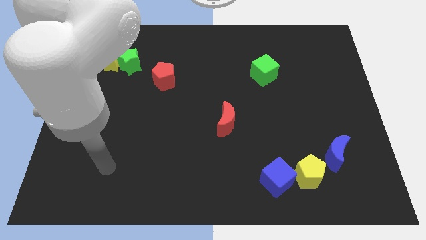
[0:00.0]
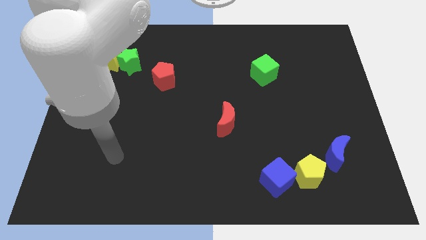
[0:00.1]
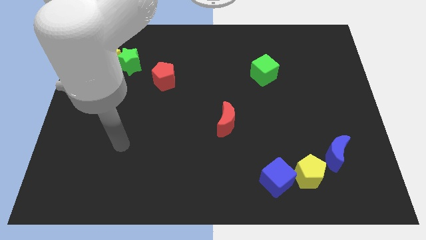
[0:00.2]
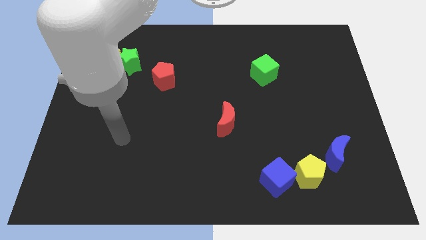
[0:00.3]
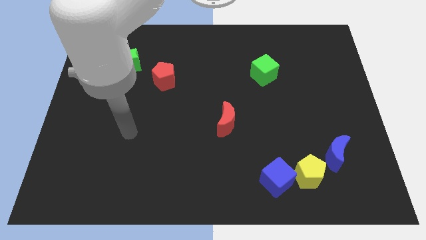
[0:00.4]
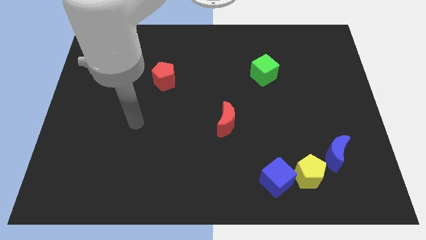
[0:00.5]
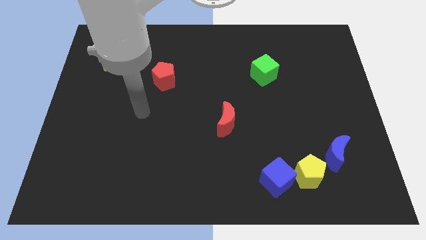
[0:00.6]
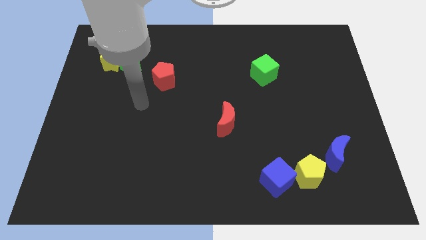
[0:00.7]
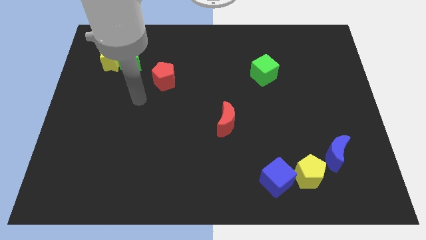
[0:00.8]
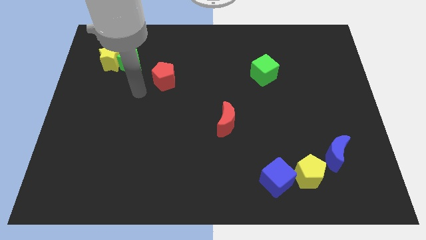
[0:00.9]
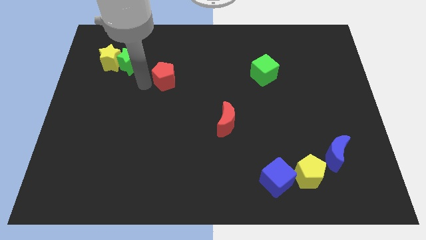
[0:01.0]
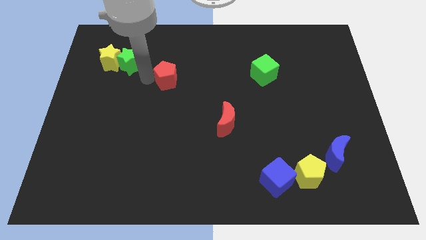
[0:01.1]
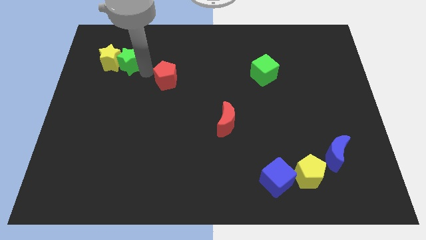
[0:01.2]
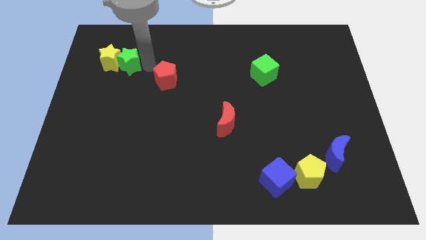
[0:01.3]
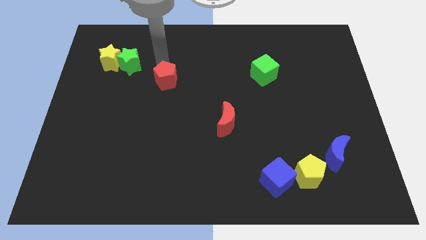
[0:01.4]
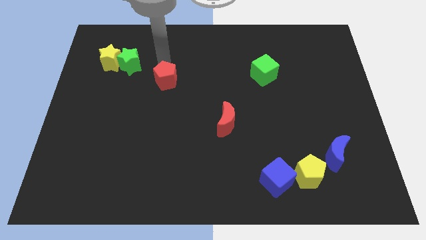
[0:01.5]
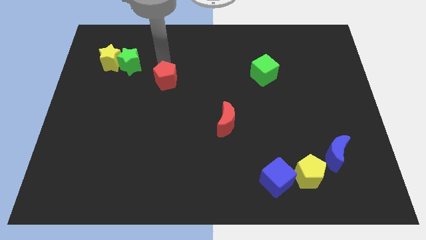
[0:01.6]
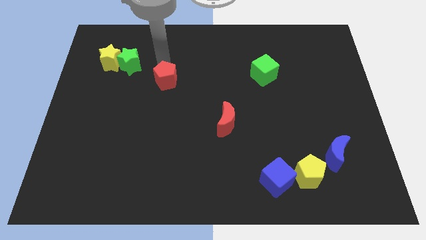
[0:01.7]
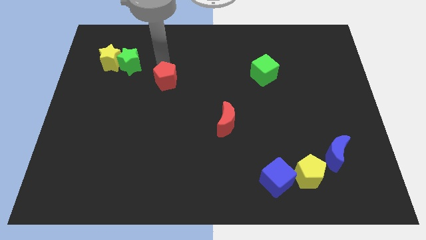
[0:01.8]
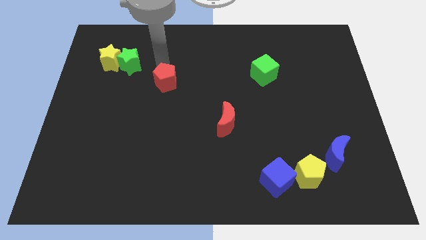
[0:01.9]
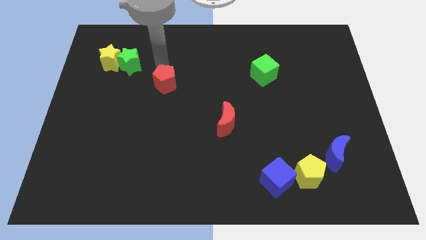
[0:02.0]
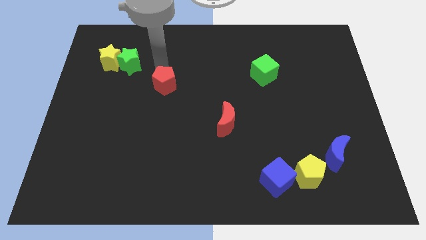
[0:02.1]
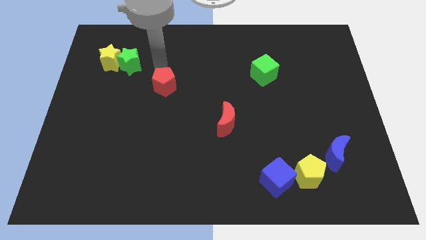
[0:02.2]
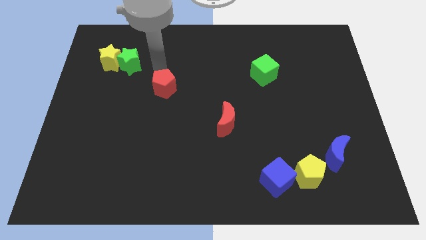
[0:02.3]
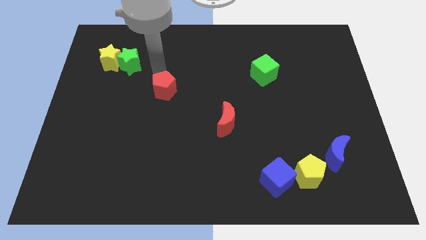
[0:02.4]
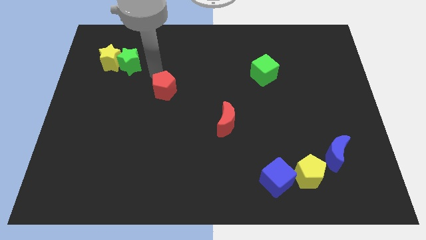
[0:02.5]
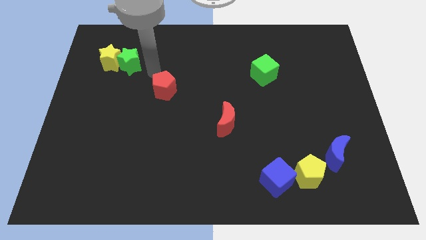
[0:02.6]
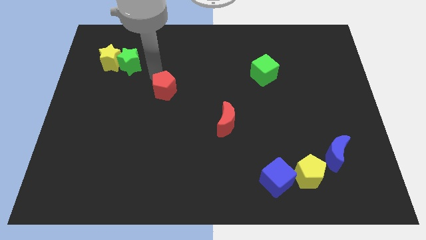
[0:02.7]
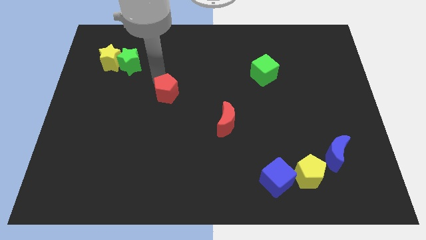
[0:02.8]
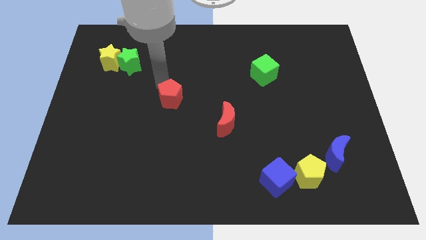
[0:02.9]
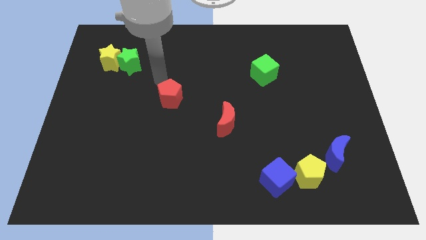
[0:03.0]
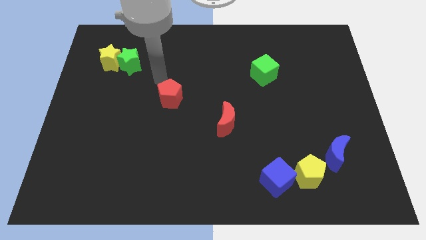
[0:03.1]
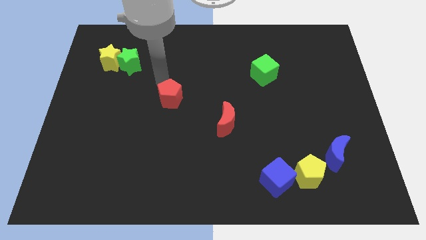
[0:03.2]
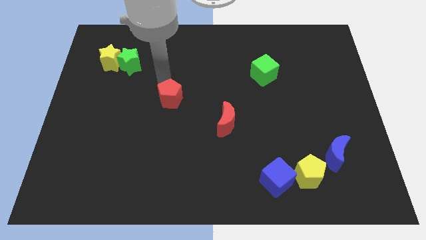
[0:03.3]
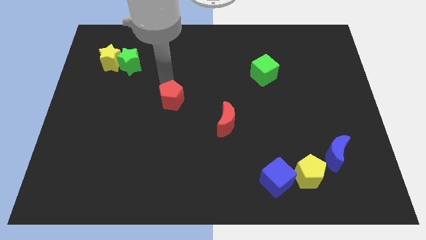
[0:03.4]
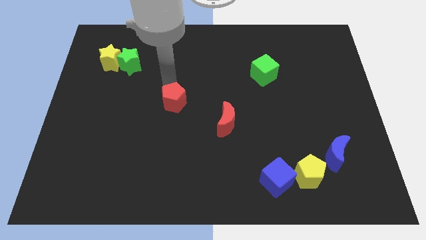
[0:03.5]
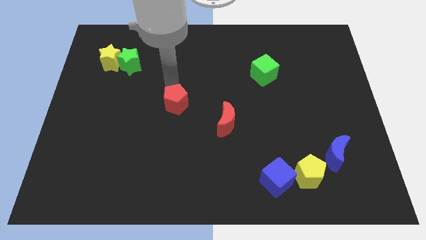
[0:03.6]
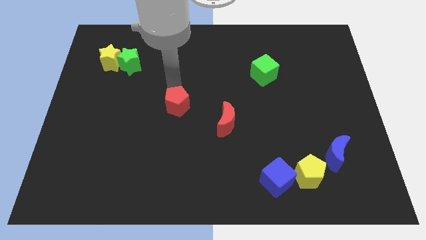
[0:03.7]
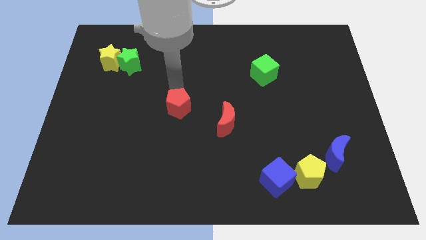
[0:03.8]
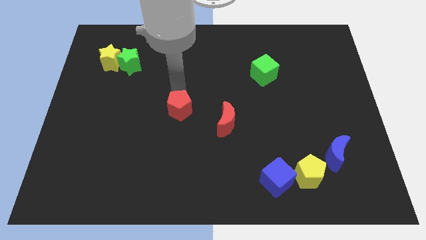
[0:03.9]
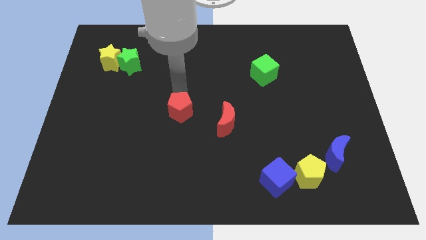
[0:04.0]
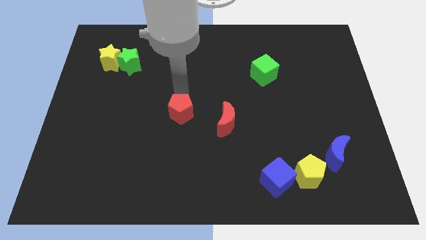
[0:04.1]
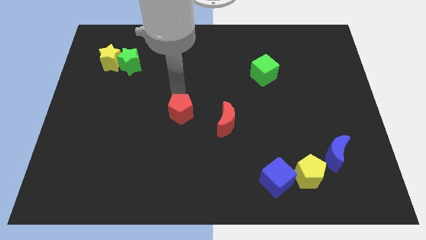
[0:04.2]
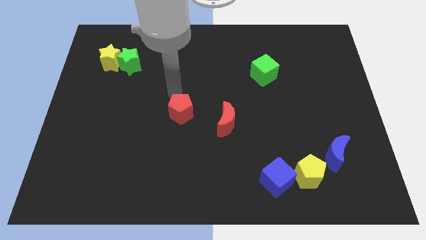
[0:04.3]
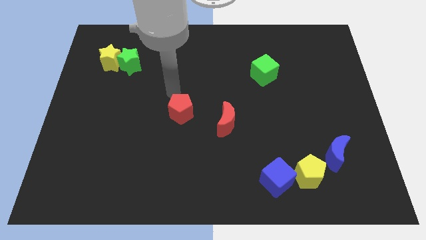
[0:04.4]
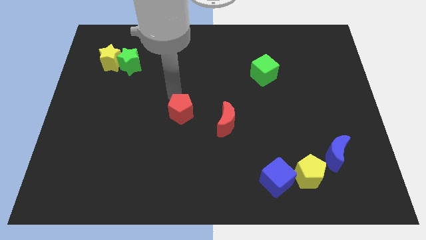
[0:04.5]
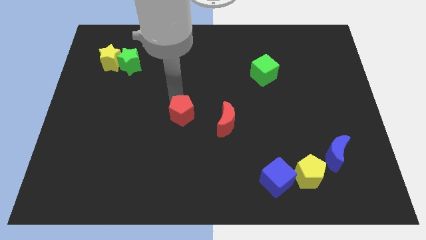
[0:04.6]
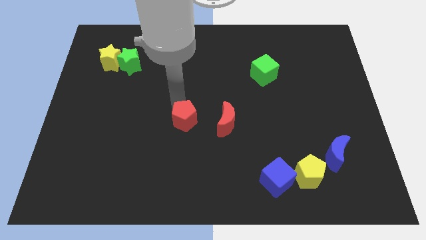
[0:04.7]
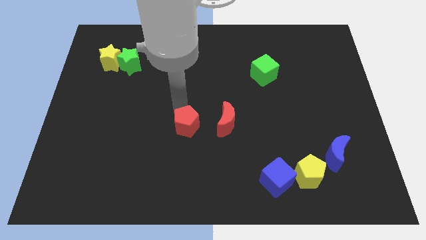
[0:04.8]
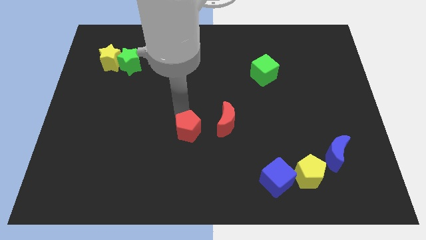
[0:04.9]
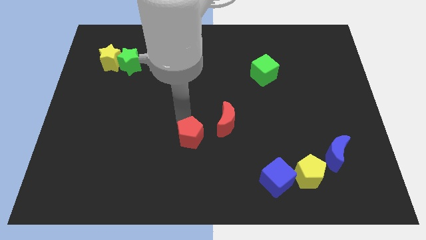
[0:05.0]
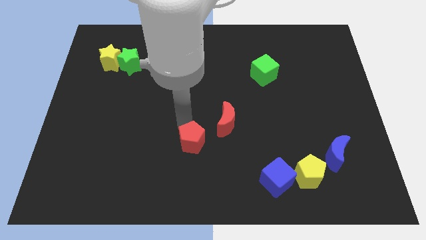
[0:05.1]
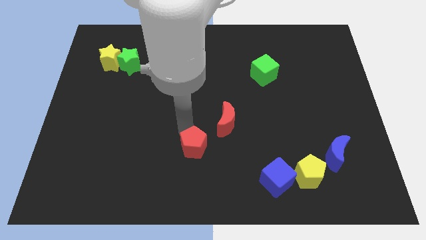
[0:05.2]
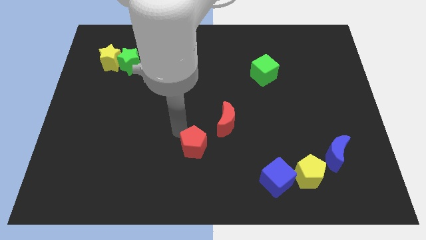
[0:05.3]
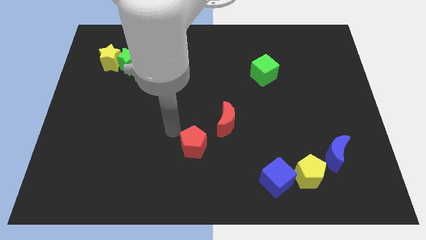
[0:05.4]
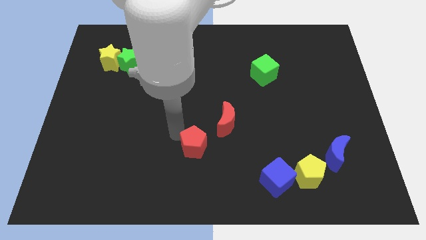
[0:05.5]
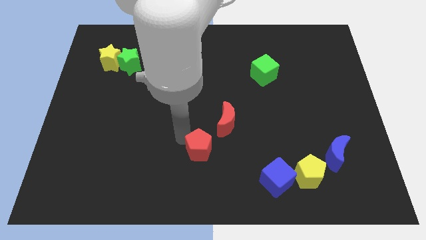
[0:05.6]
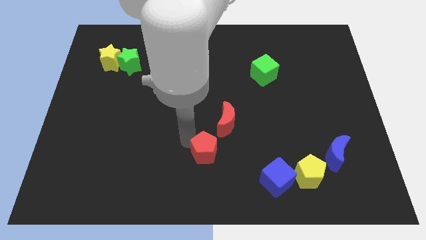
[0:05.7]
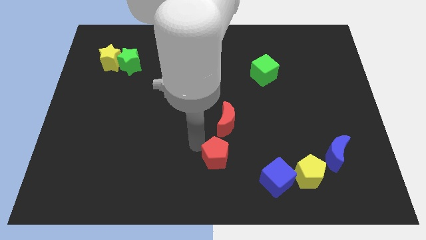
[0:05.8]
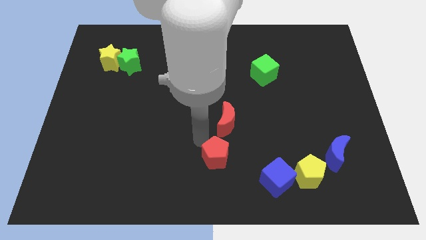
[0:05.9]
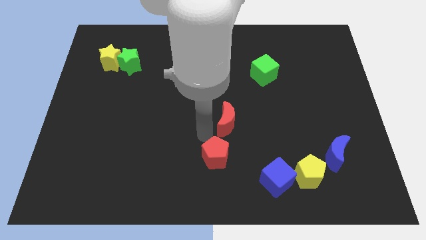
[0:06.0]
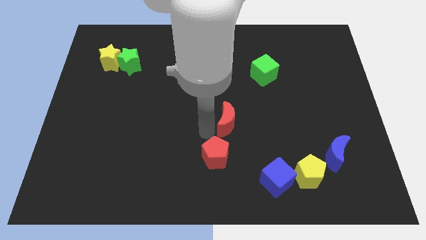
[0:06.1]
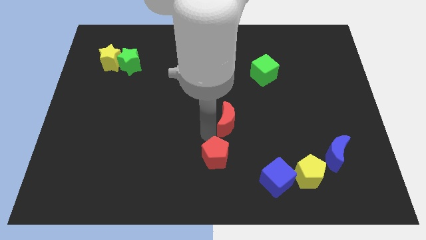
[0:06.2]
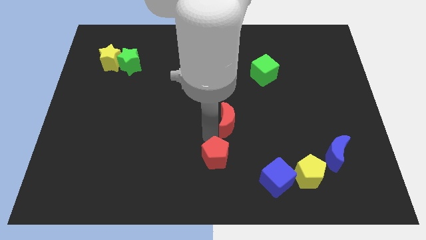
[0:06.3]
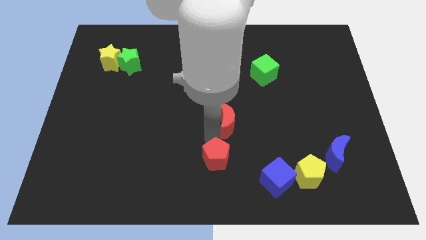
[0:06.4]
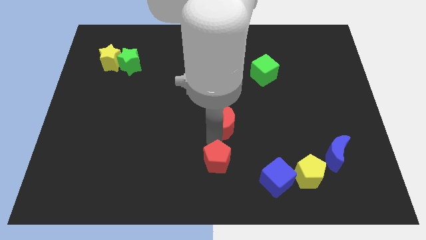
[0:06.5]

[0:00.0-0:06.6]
push the red pentagon to the left side of the blue cube
